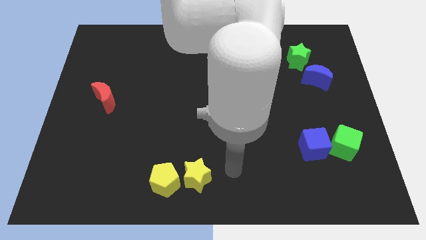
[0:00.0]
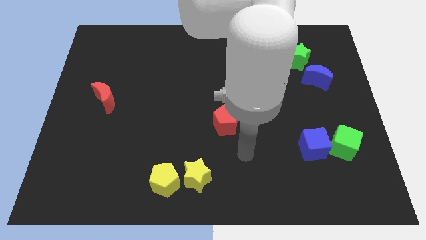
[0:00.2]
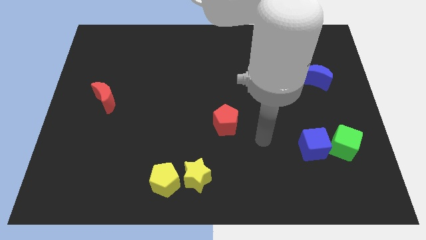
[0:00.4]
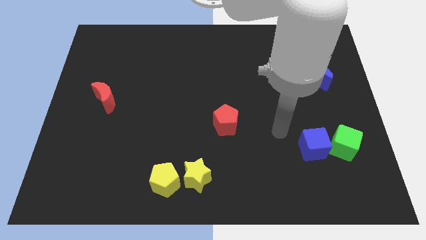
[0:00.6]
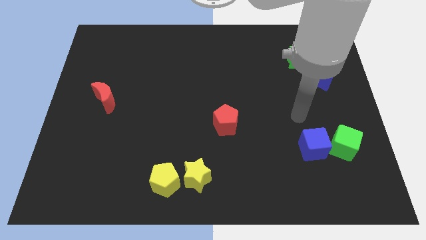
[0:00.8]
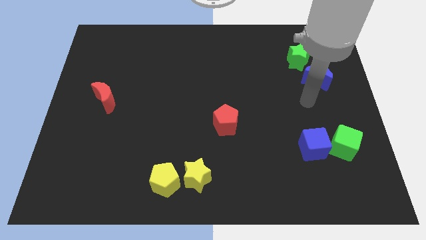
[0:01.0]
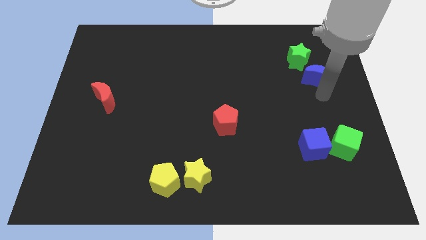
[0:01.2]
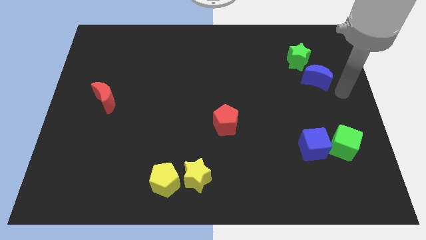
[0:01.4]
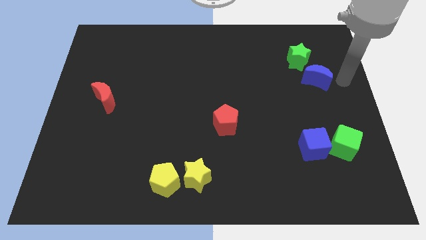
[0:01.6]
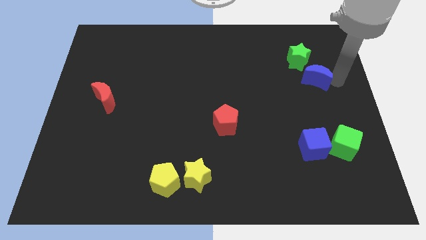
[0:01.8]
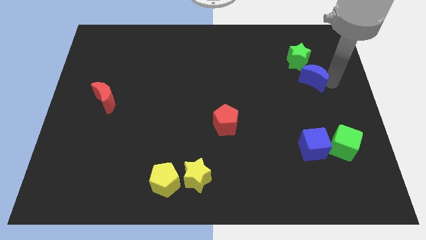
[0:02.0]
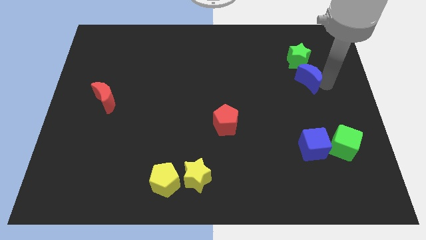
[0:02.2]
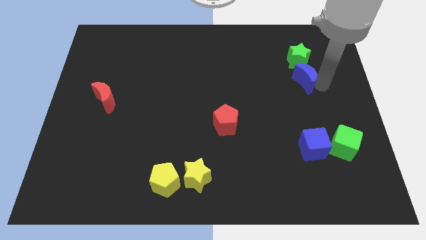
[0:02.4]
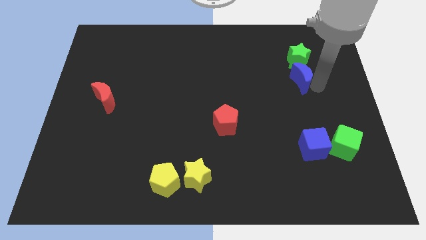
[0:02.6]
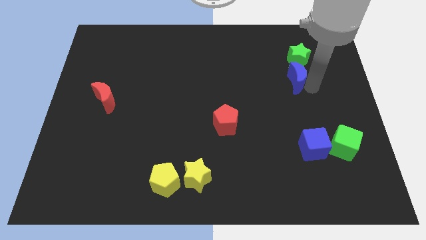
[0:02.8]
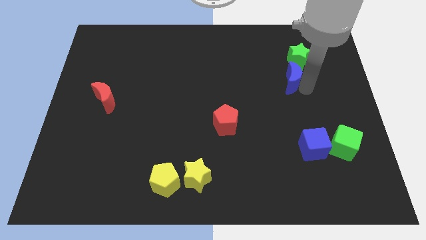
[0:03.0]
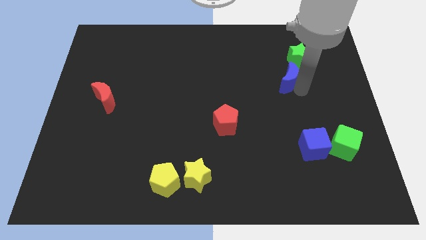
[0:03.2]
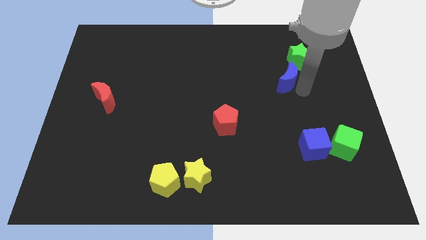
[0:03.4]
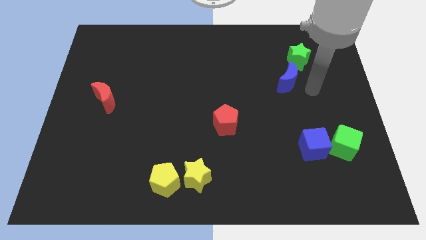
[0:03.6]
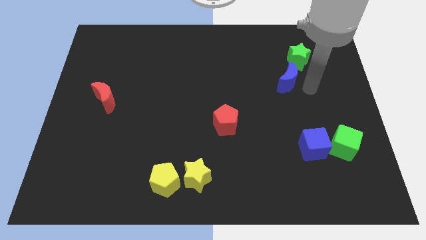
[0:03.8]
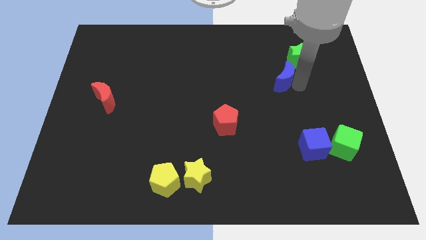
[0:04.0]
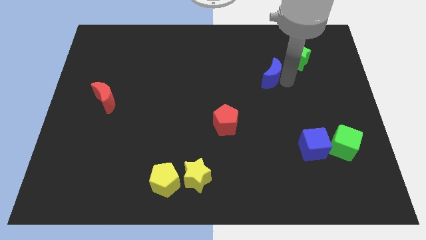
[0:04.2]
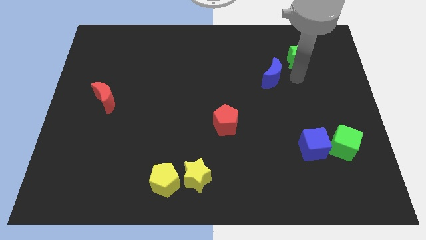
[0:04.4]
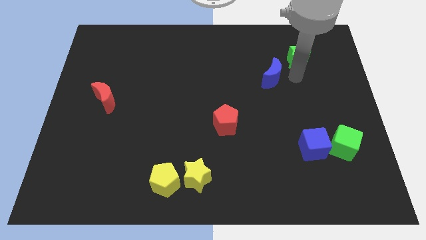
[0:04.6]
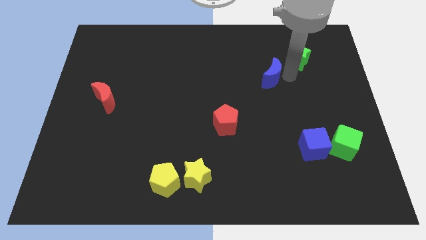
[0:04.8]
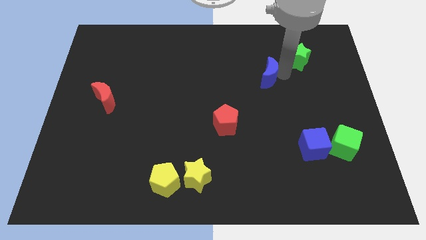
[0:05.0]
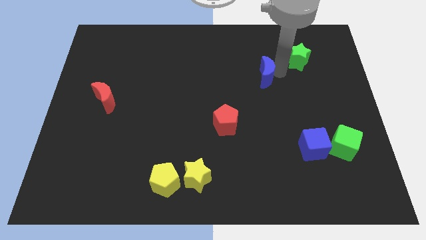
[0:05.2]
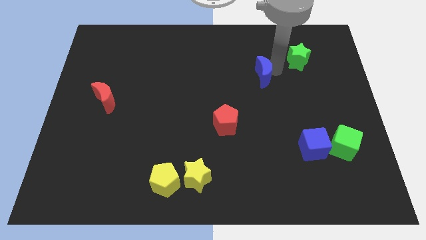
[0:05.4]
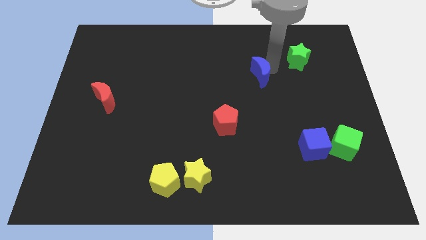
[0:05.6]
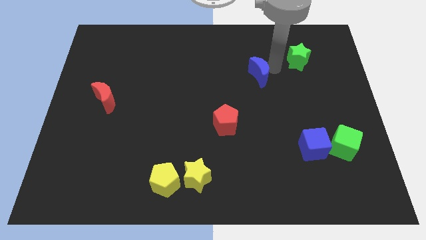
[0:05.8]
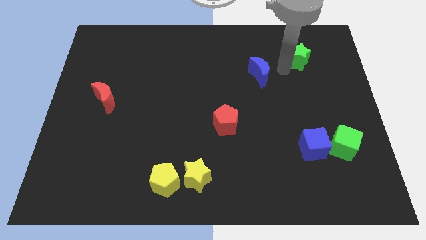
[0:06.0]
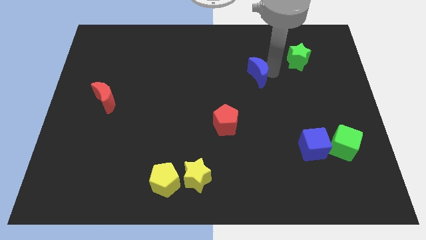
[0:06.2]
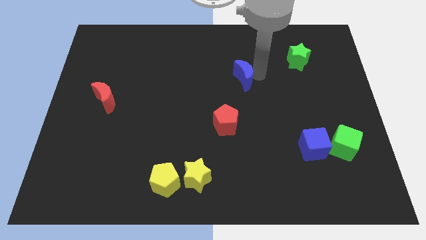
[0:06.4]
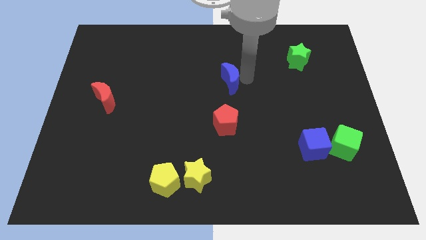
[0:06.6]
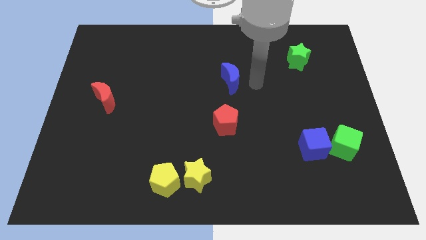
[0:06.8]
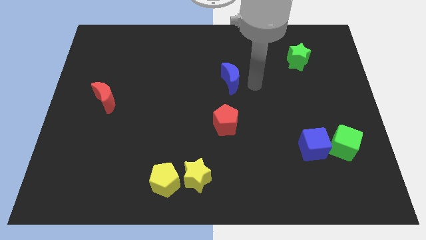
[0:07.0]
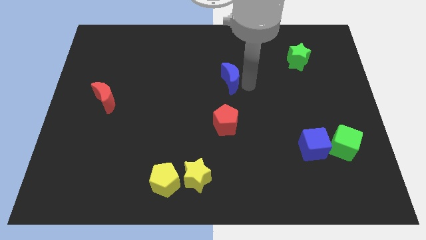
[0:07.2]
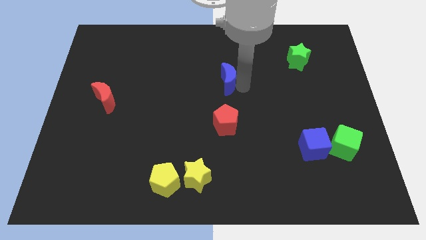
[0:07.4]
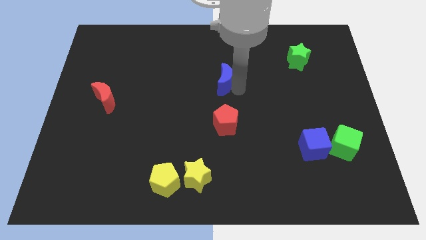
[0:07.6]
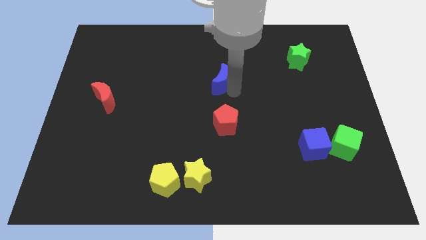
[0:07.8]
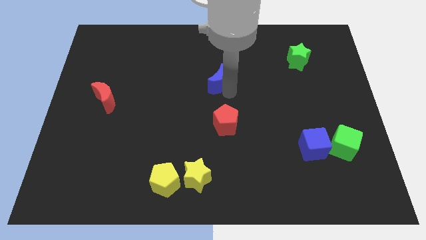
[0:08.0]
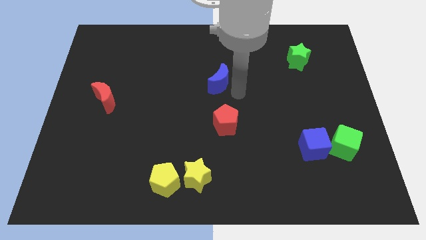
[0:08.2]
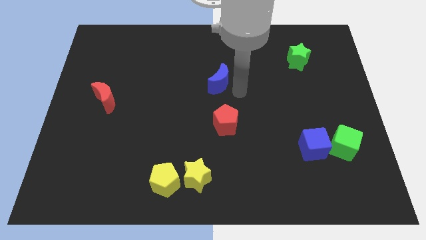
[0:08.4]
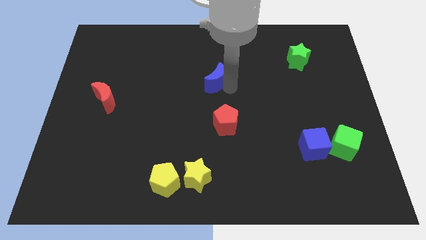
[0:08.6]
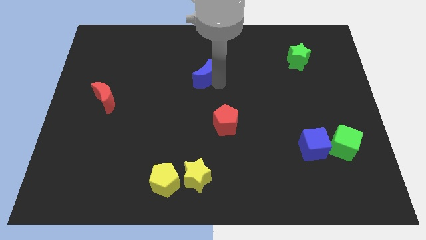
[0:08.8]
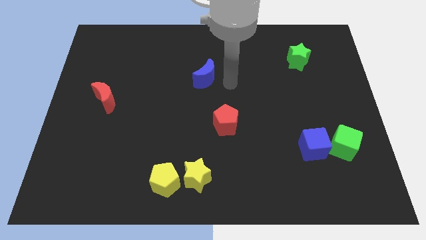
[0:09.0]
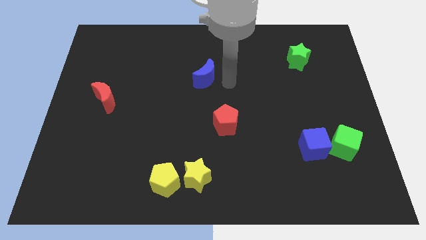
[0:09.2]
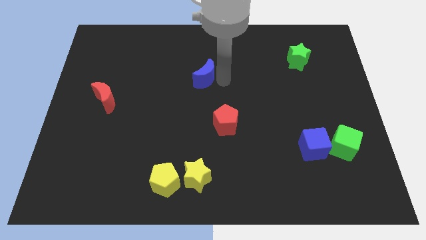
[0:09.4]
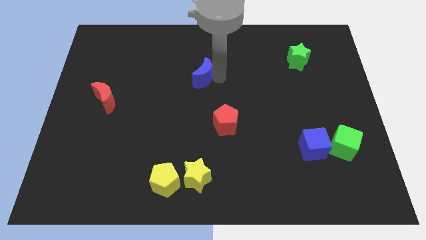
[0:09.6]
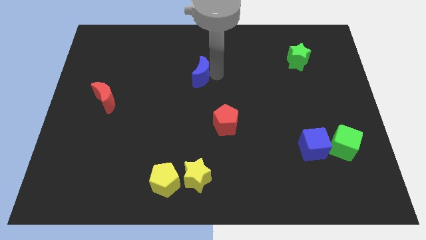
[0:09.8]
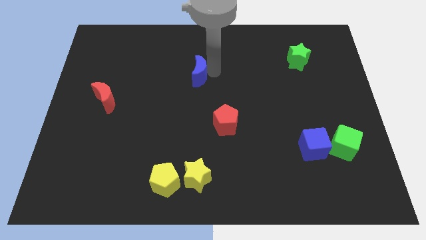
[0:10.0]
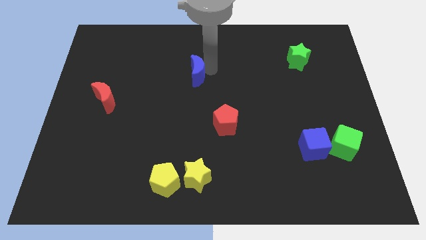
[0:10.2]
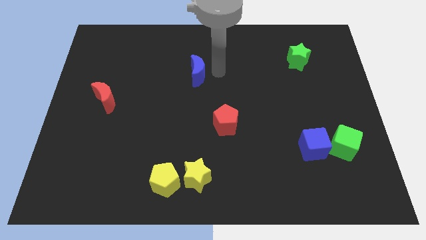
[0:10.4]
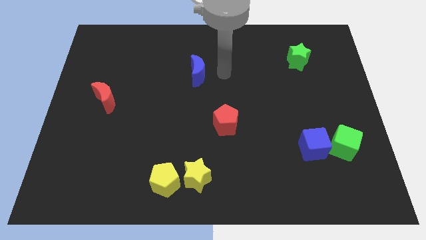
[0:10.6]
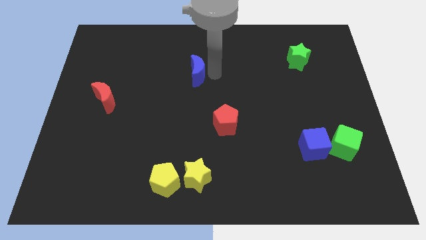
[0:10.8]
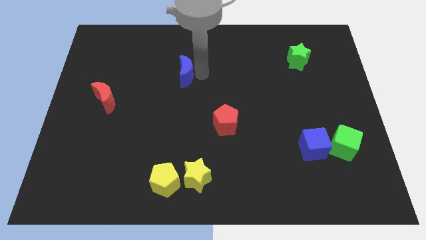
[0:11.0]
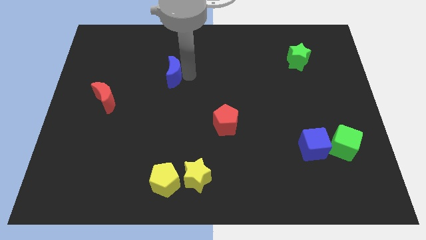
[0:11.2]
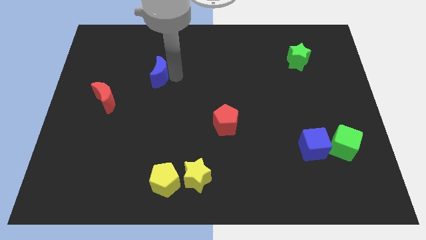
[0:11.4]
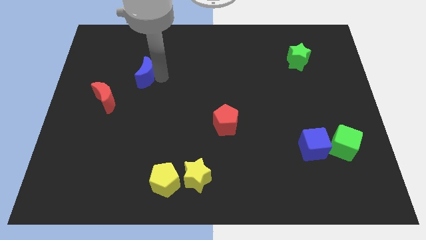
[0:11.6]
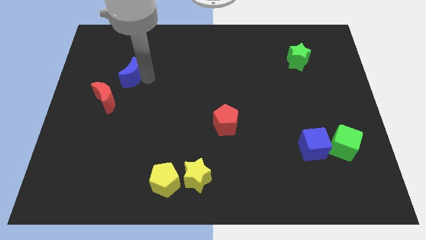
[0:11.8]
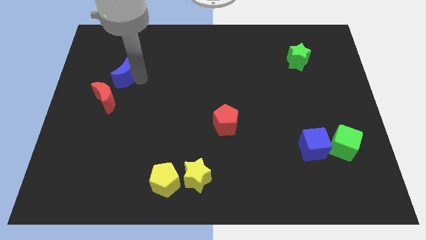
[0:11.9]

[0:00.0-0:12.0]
push the blue moon to the top side of the red moon
